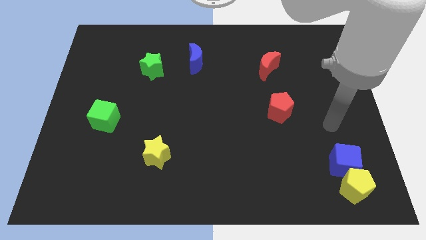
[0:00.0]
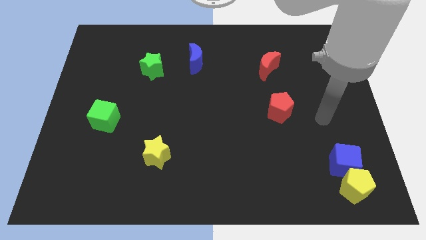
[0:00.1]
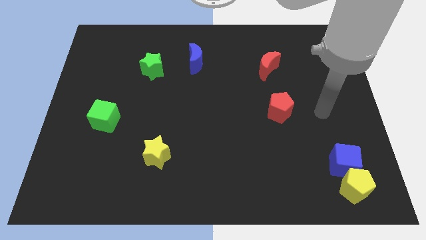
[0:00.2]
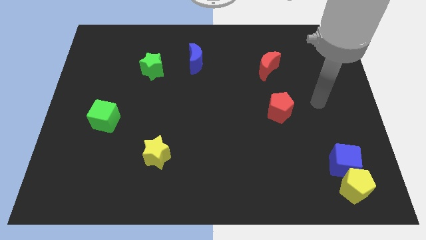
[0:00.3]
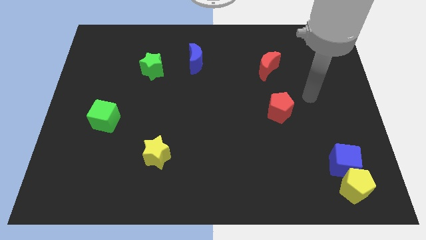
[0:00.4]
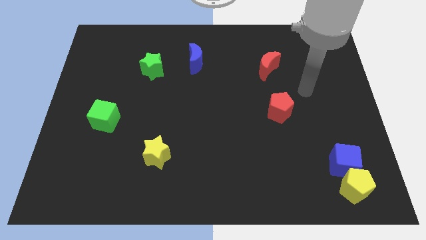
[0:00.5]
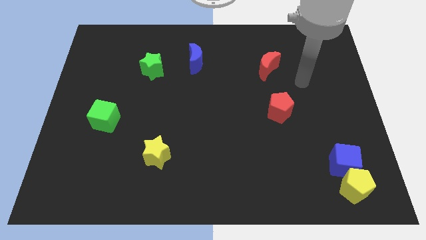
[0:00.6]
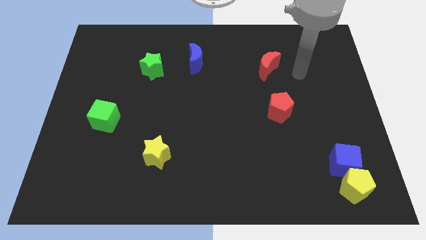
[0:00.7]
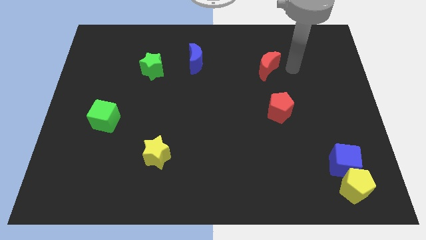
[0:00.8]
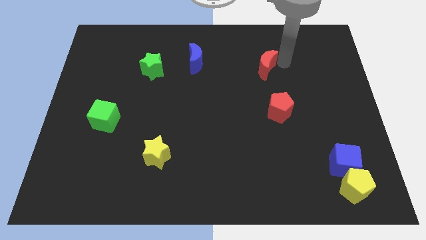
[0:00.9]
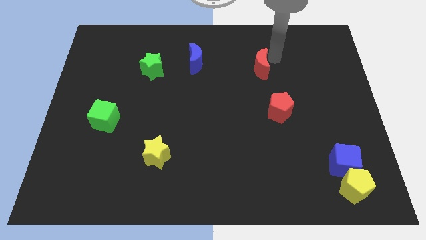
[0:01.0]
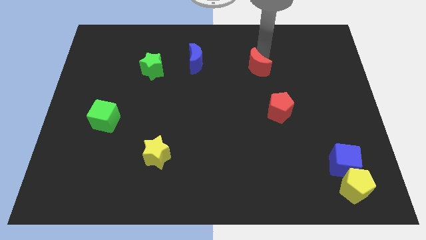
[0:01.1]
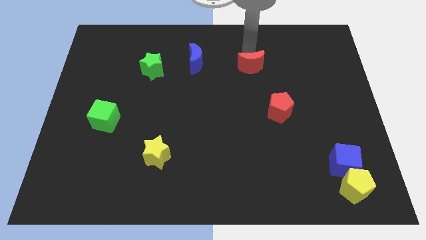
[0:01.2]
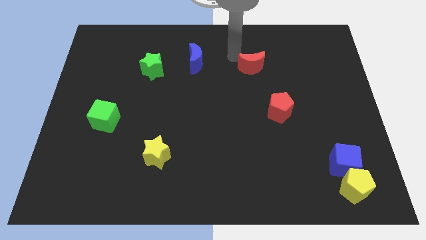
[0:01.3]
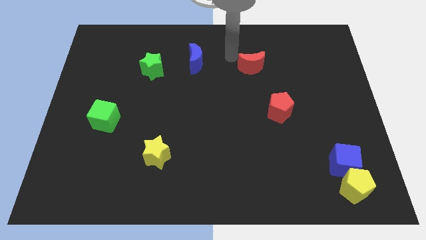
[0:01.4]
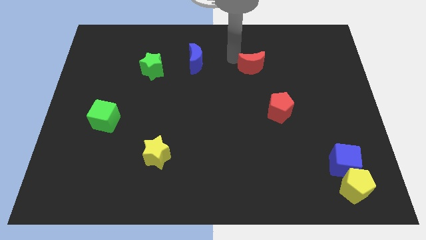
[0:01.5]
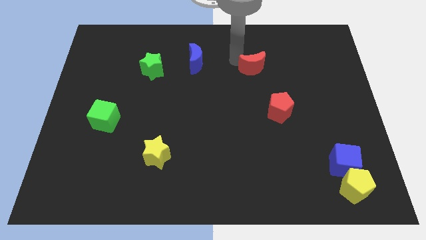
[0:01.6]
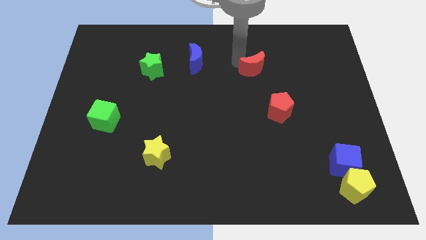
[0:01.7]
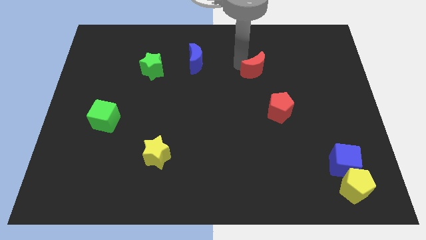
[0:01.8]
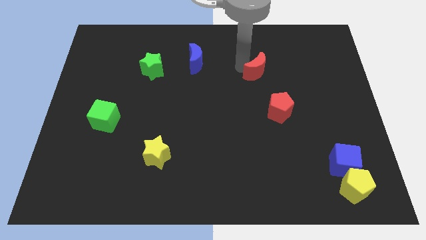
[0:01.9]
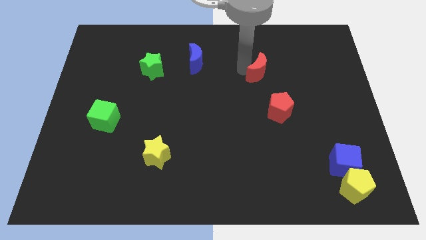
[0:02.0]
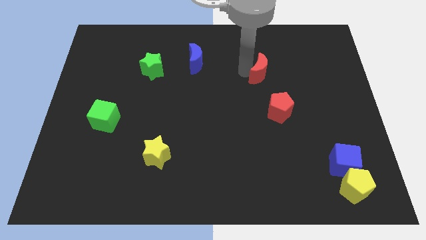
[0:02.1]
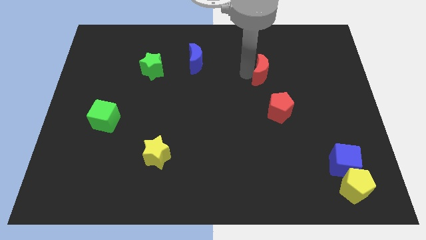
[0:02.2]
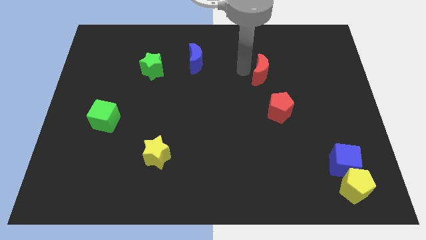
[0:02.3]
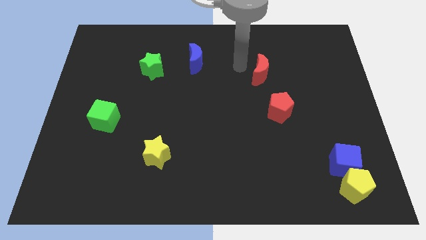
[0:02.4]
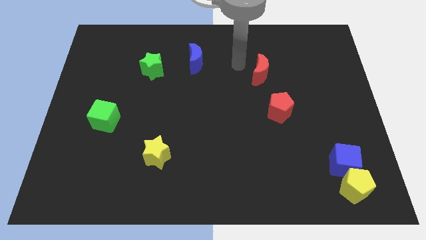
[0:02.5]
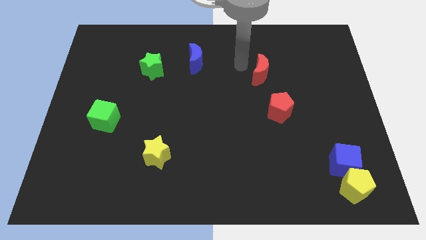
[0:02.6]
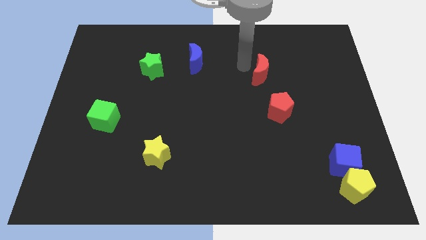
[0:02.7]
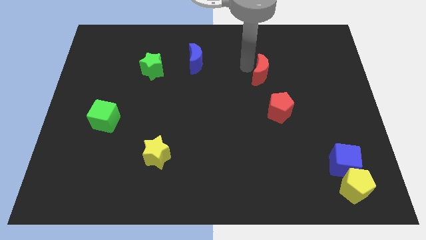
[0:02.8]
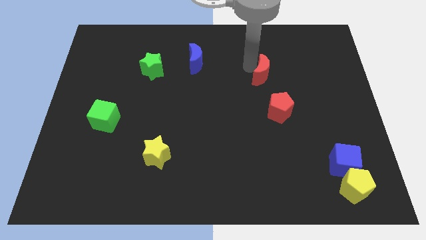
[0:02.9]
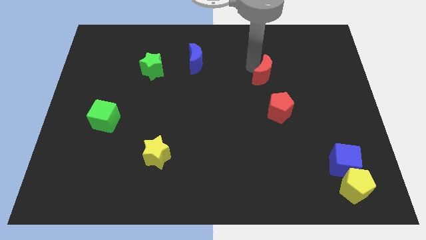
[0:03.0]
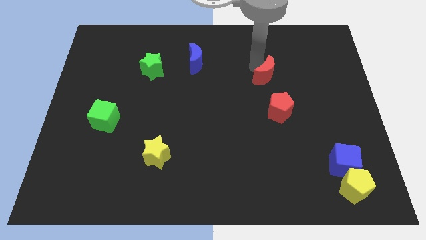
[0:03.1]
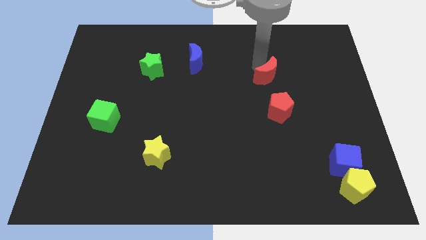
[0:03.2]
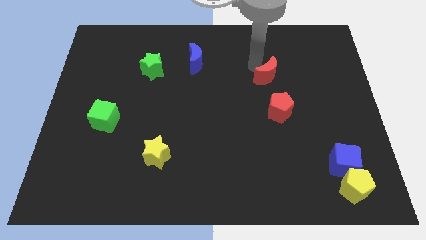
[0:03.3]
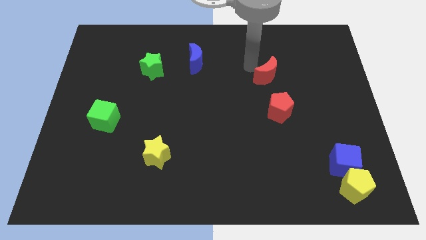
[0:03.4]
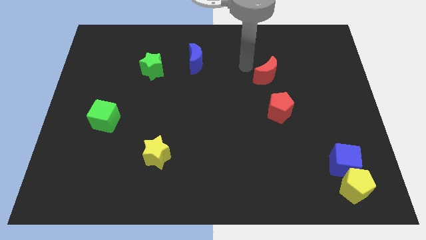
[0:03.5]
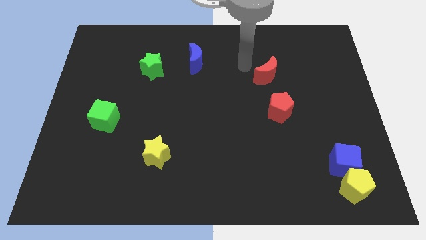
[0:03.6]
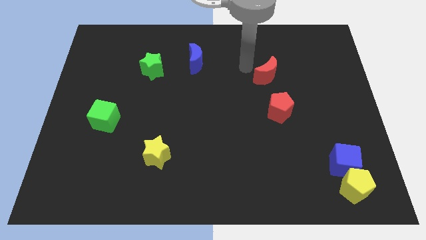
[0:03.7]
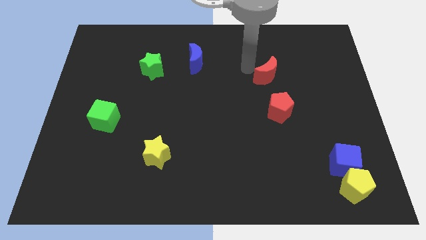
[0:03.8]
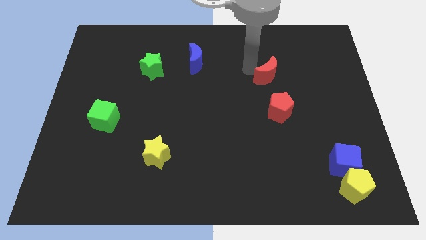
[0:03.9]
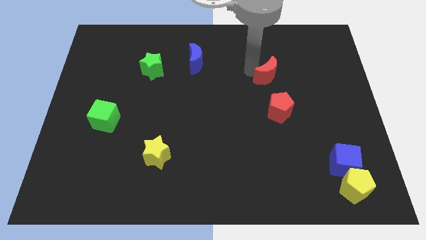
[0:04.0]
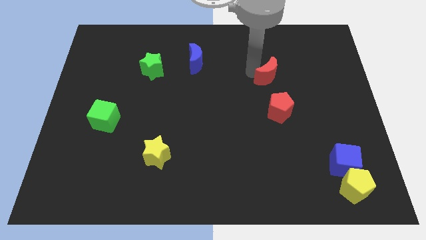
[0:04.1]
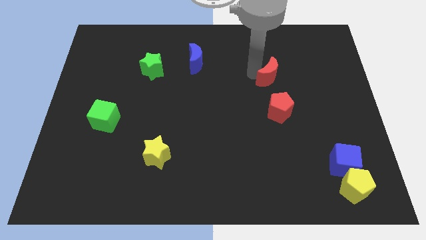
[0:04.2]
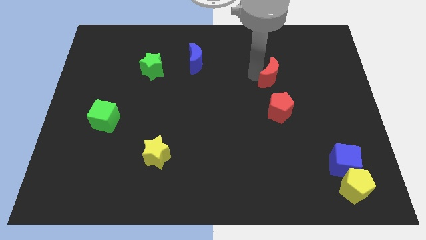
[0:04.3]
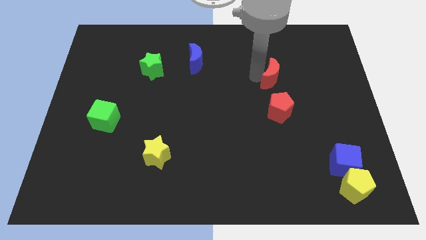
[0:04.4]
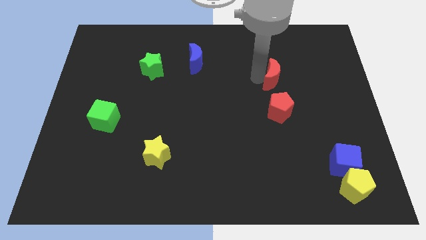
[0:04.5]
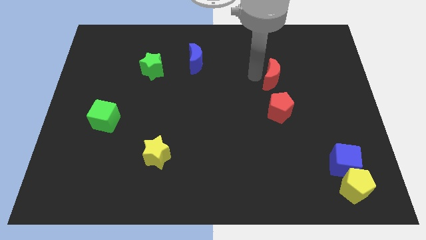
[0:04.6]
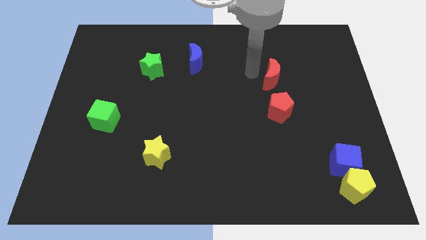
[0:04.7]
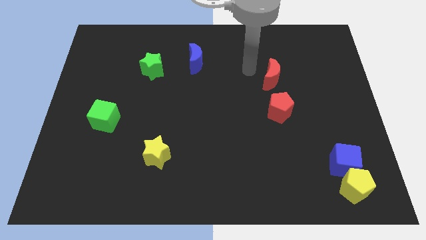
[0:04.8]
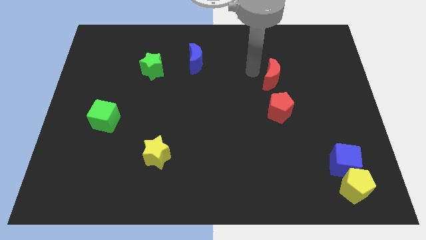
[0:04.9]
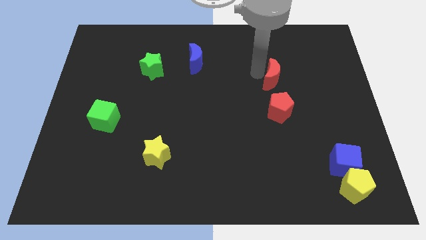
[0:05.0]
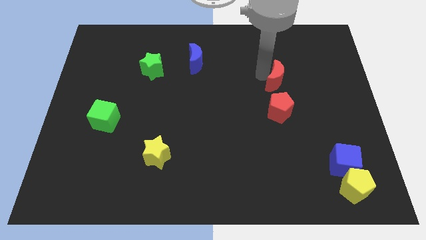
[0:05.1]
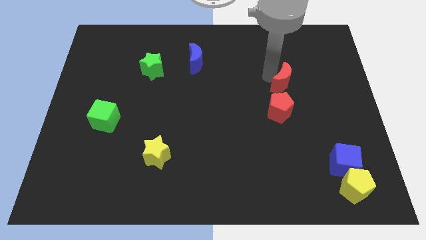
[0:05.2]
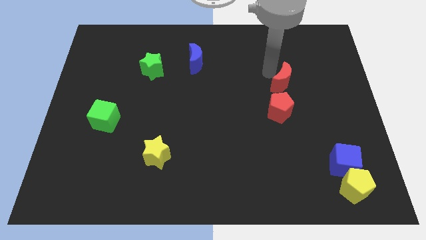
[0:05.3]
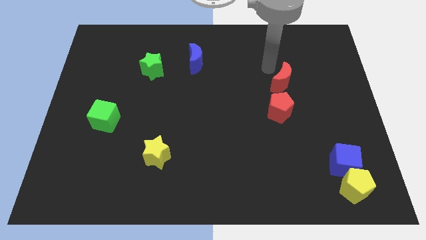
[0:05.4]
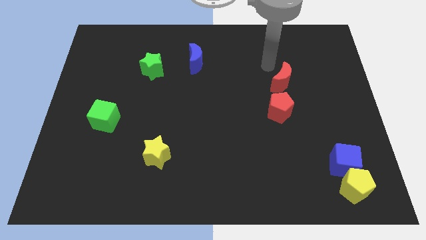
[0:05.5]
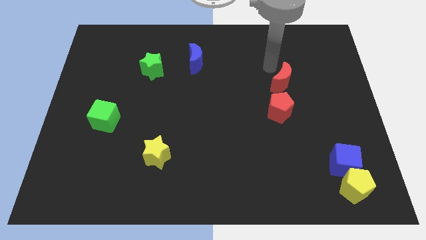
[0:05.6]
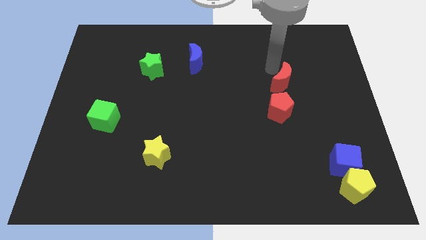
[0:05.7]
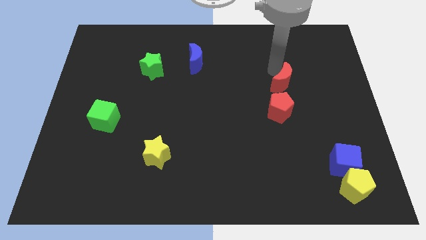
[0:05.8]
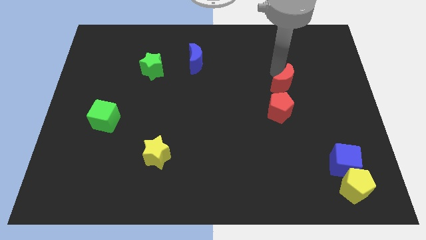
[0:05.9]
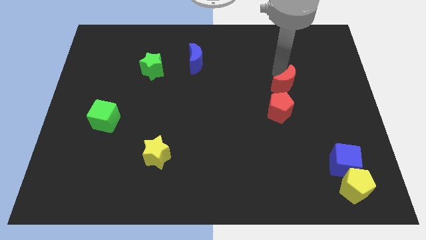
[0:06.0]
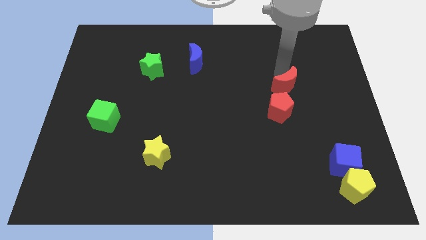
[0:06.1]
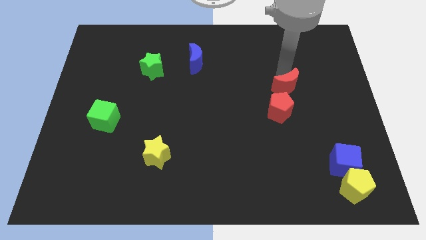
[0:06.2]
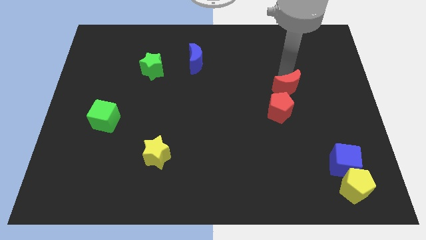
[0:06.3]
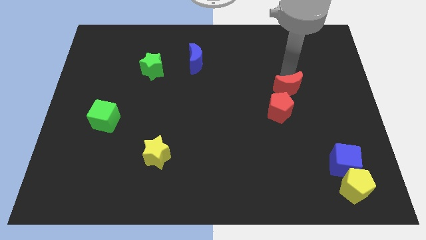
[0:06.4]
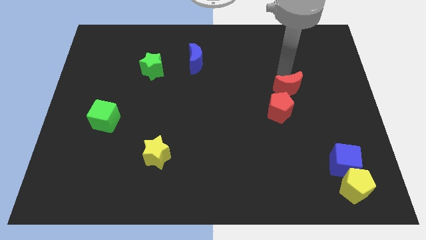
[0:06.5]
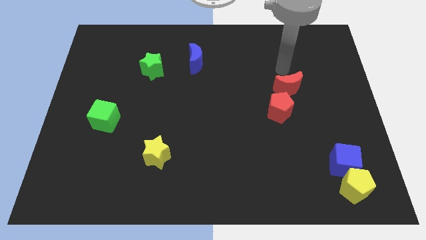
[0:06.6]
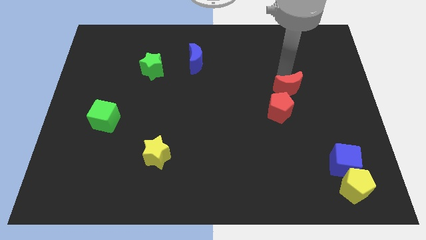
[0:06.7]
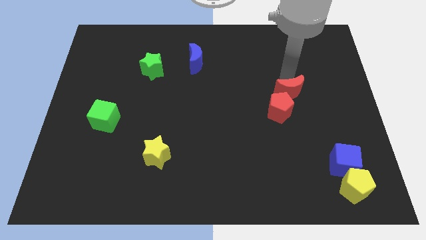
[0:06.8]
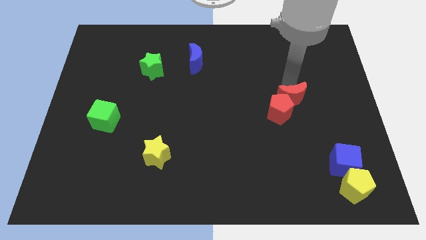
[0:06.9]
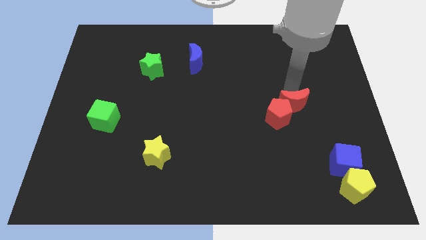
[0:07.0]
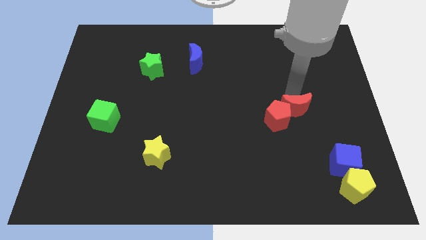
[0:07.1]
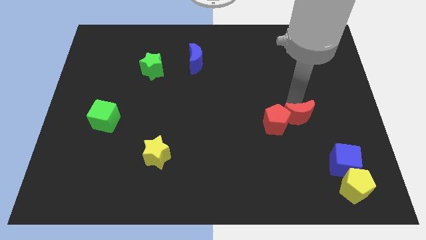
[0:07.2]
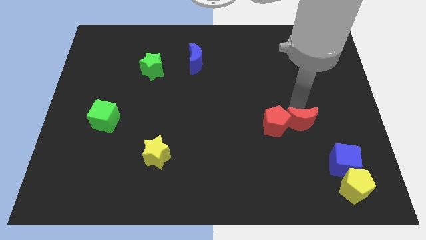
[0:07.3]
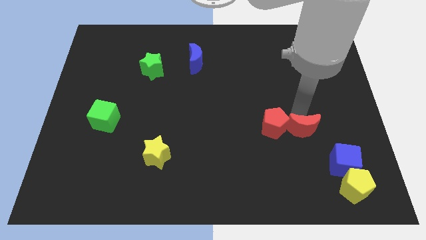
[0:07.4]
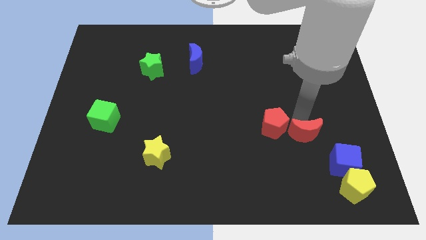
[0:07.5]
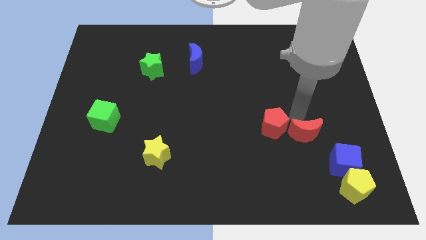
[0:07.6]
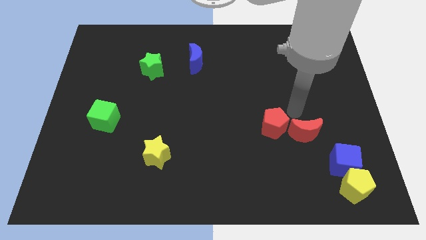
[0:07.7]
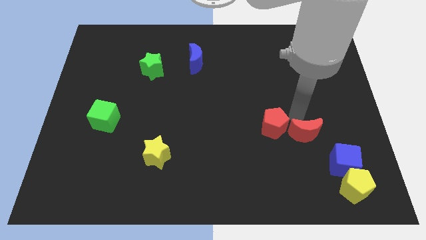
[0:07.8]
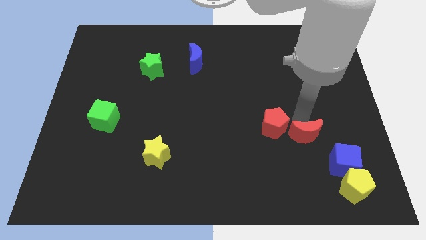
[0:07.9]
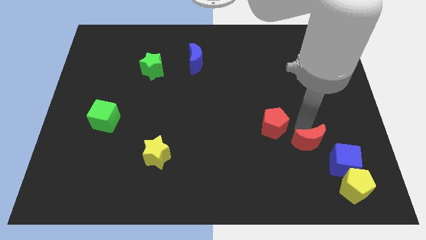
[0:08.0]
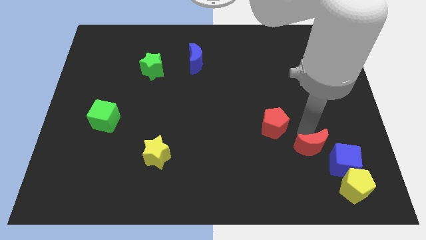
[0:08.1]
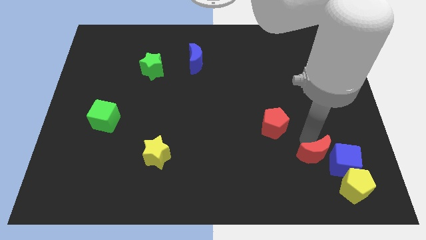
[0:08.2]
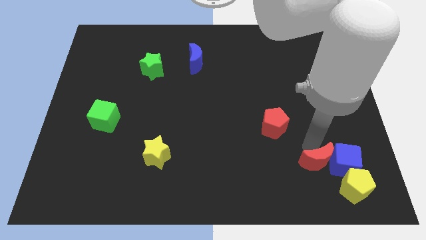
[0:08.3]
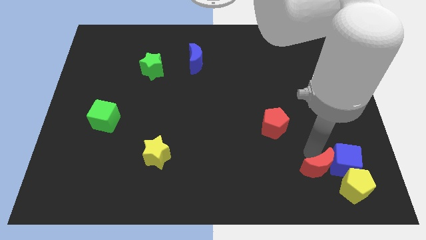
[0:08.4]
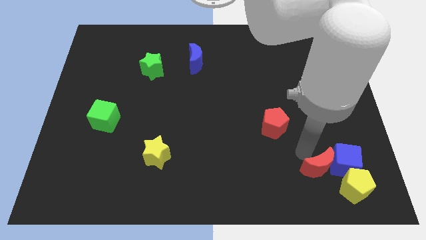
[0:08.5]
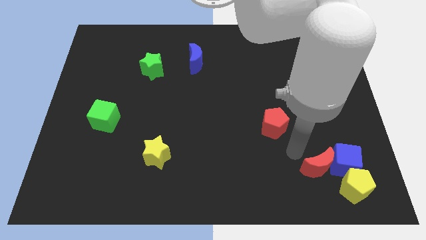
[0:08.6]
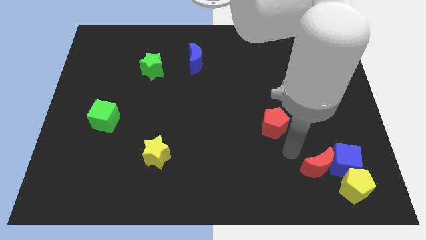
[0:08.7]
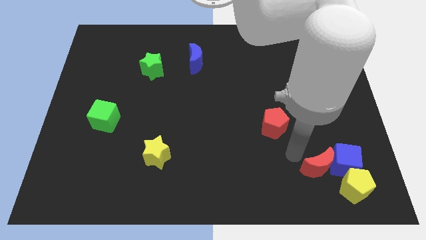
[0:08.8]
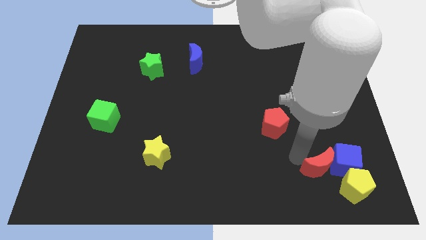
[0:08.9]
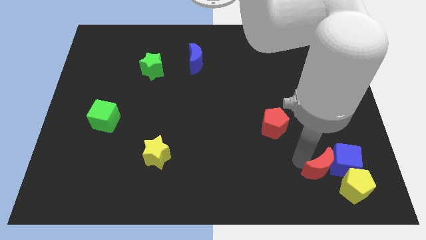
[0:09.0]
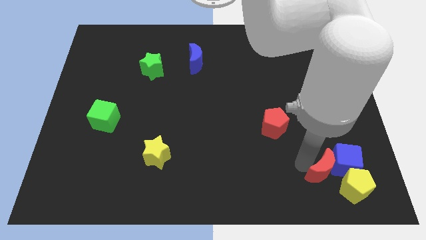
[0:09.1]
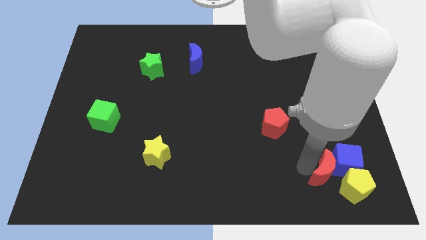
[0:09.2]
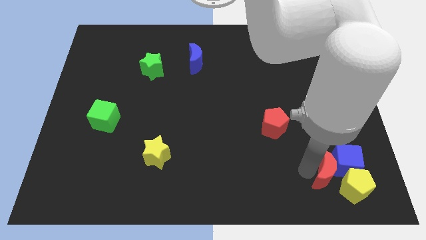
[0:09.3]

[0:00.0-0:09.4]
slide the red moon close to the yellow pentagon
